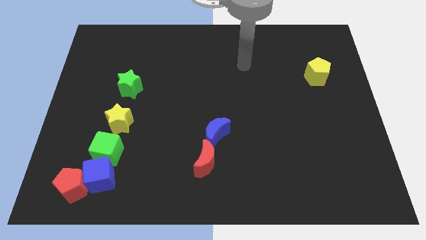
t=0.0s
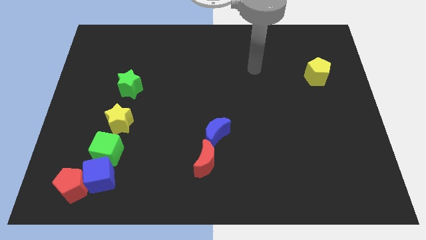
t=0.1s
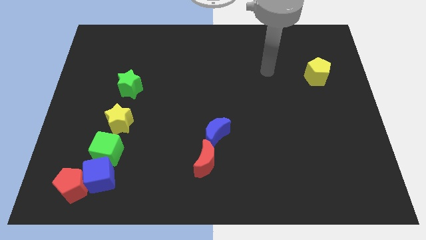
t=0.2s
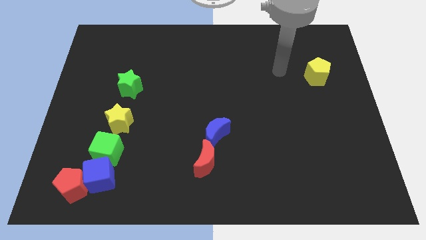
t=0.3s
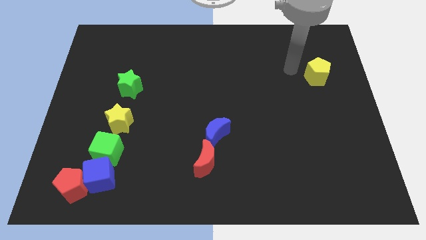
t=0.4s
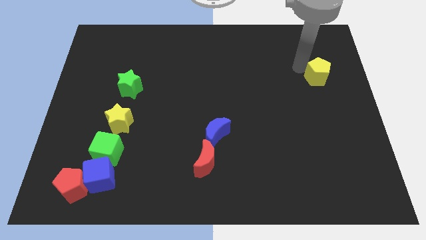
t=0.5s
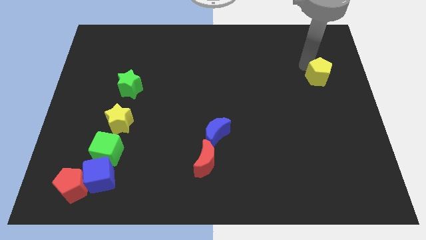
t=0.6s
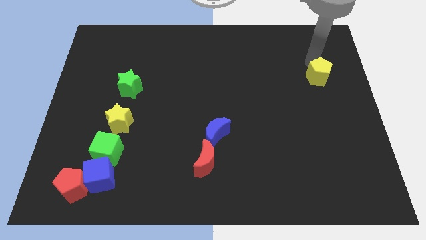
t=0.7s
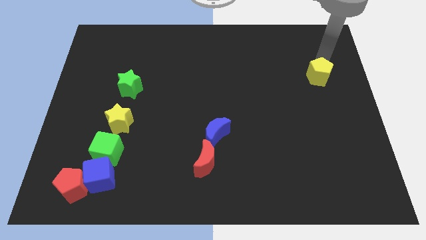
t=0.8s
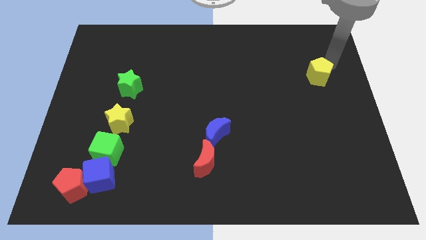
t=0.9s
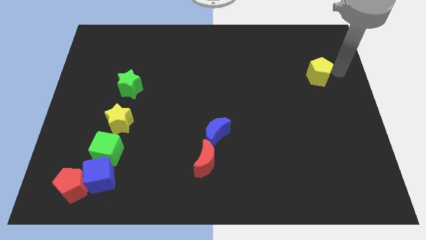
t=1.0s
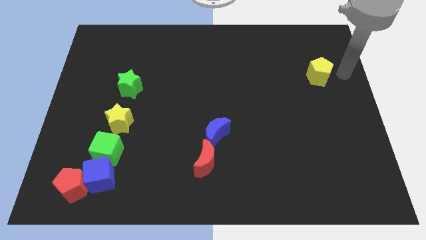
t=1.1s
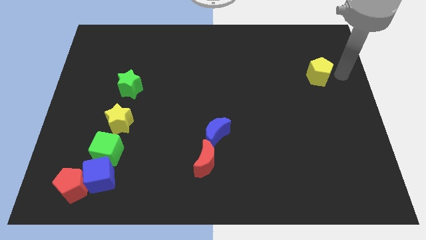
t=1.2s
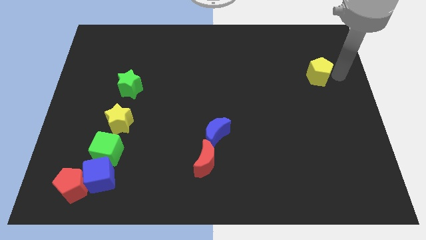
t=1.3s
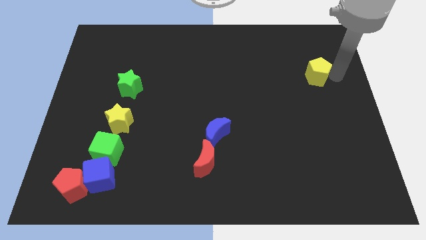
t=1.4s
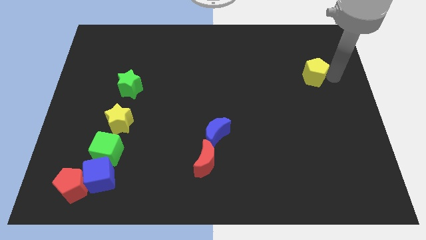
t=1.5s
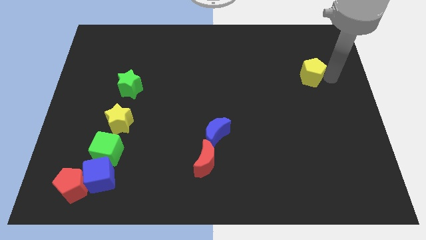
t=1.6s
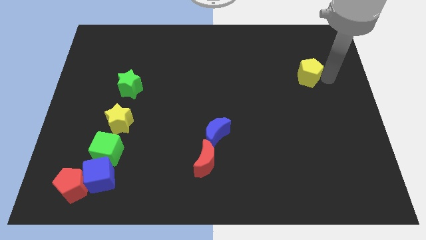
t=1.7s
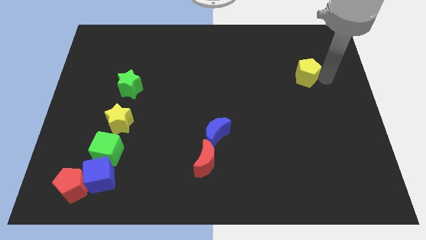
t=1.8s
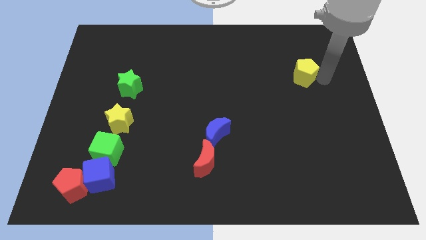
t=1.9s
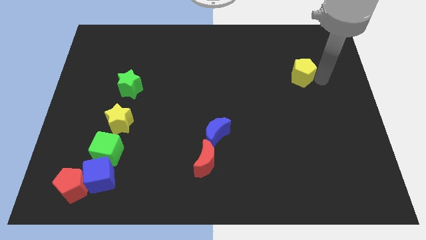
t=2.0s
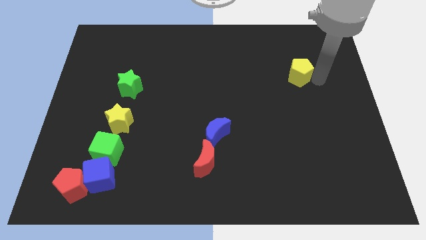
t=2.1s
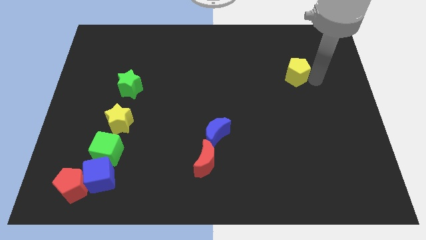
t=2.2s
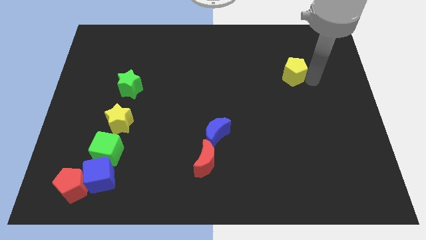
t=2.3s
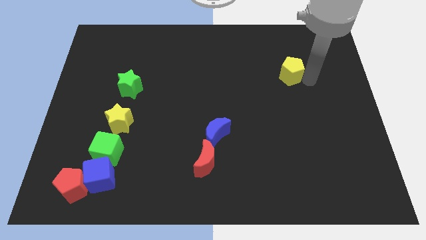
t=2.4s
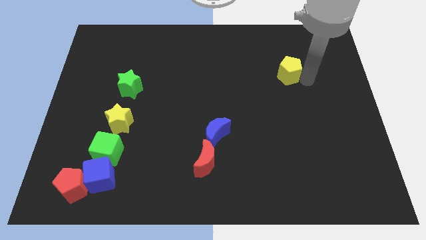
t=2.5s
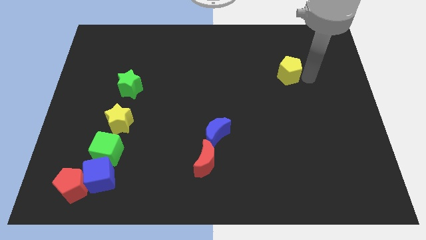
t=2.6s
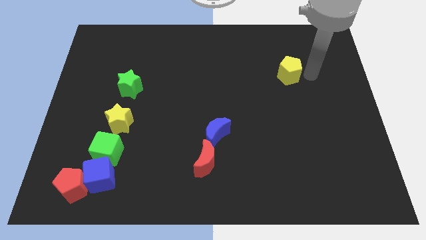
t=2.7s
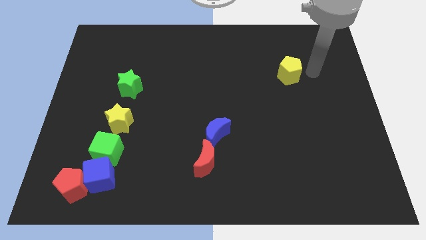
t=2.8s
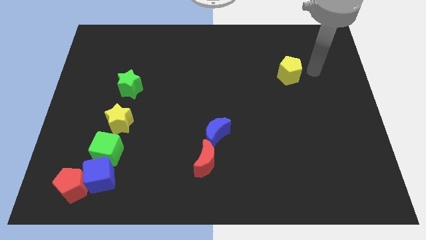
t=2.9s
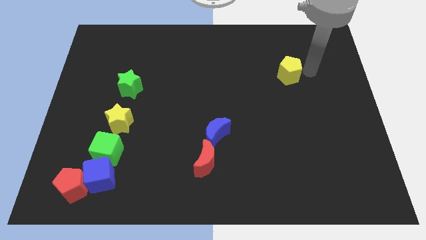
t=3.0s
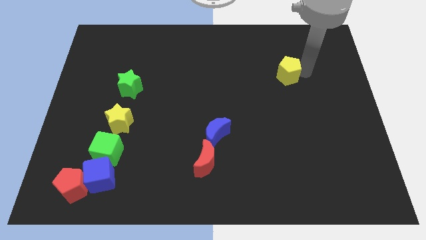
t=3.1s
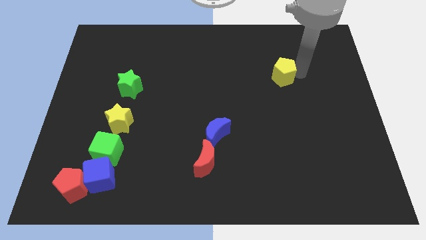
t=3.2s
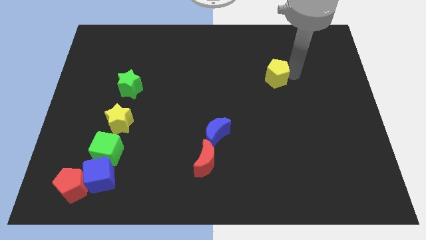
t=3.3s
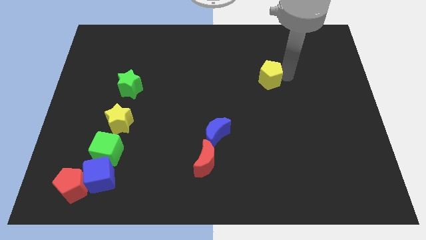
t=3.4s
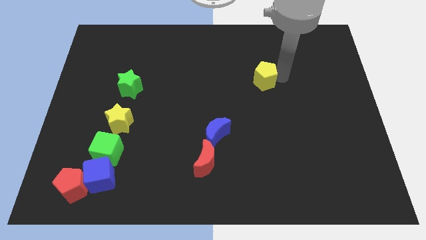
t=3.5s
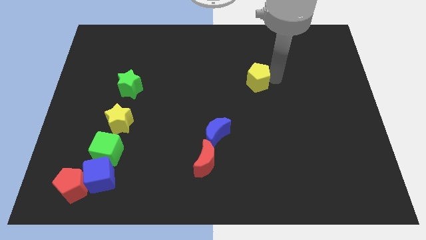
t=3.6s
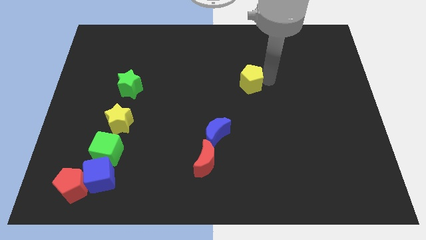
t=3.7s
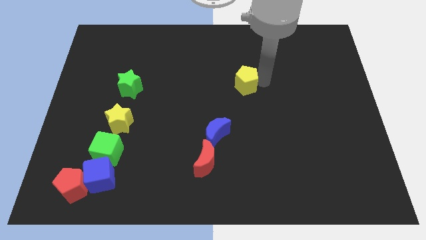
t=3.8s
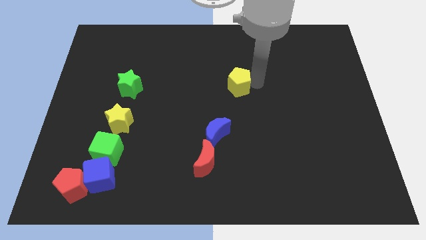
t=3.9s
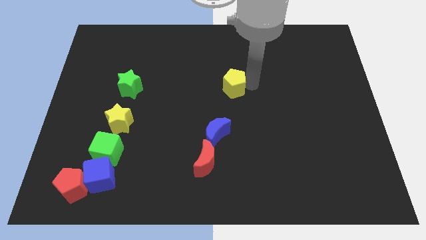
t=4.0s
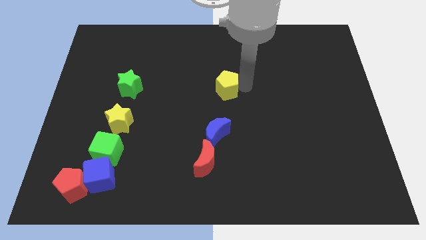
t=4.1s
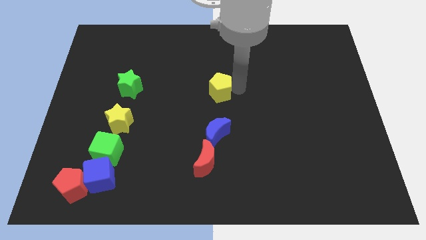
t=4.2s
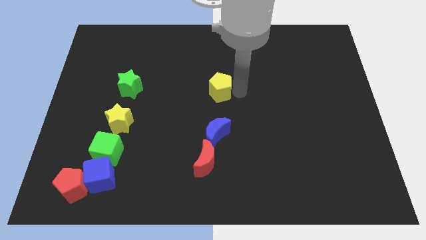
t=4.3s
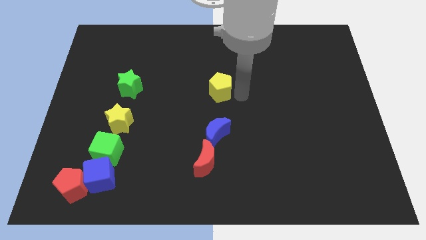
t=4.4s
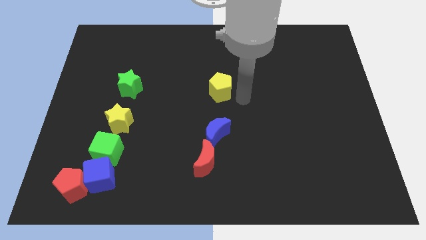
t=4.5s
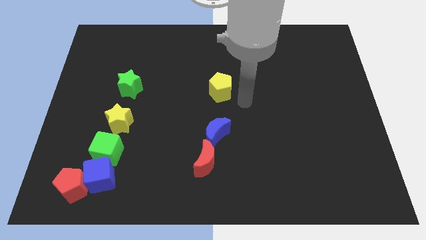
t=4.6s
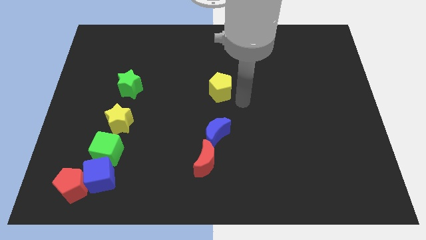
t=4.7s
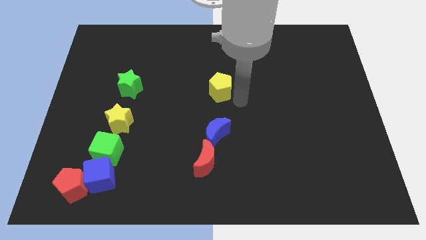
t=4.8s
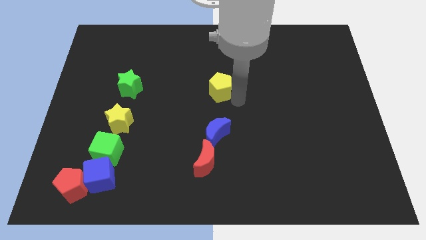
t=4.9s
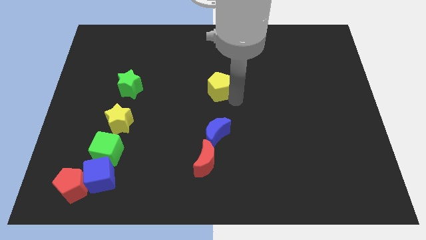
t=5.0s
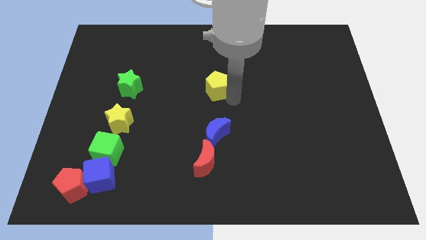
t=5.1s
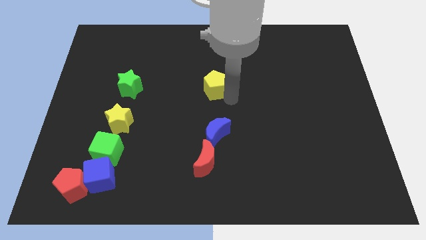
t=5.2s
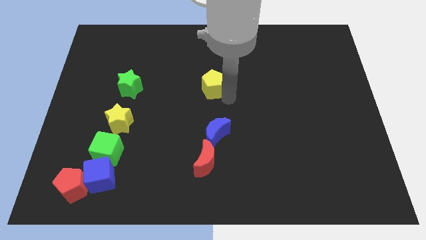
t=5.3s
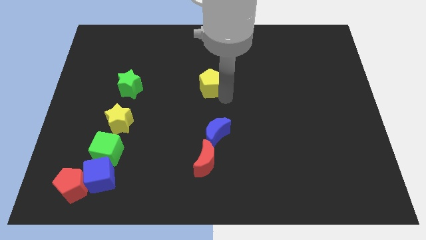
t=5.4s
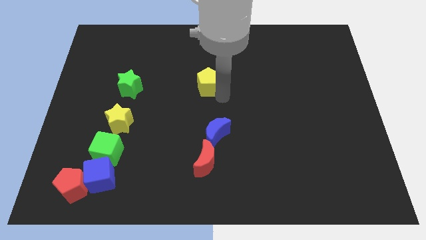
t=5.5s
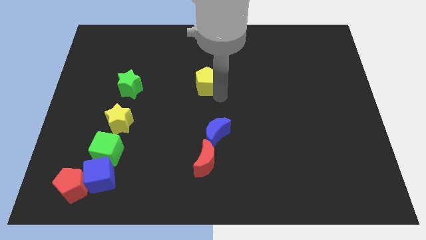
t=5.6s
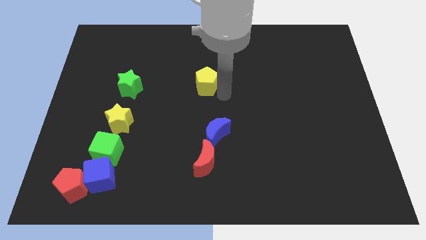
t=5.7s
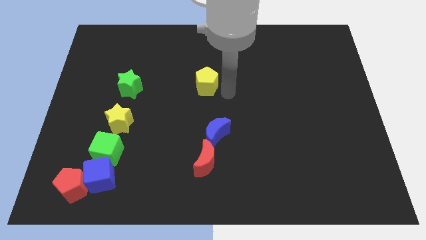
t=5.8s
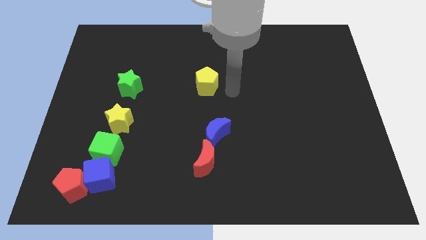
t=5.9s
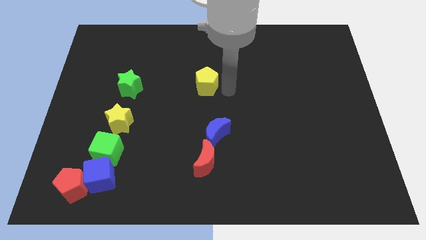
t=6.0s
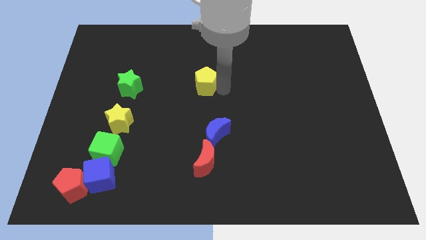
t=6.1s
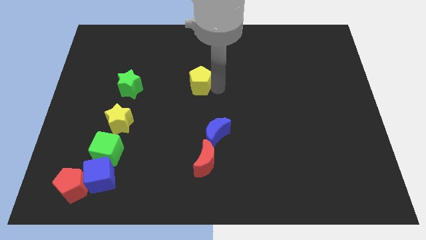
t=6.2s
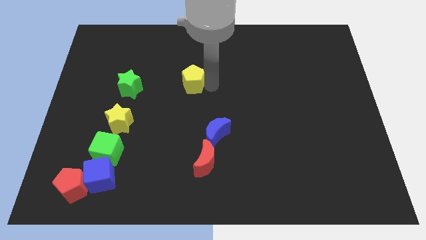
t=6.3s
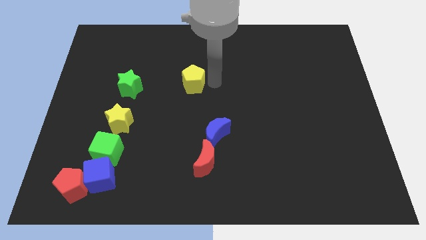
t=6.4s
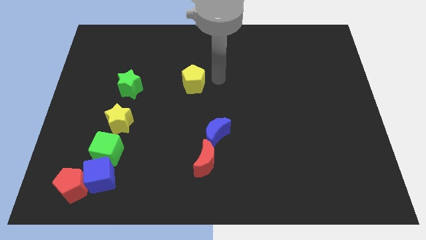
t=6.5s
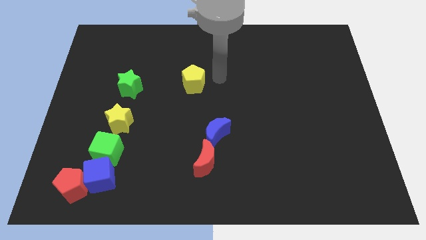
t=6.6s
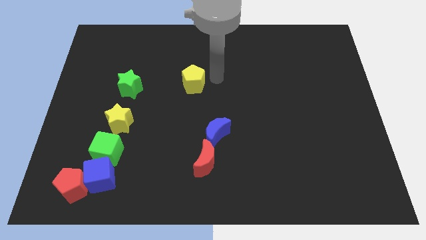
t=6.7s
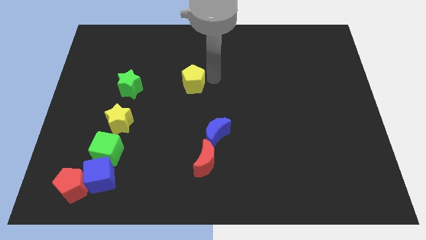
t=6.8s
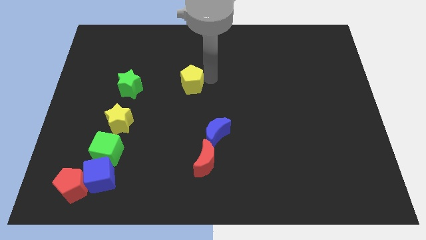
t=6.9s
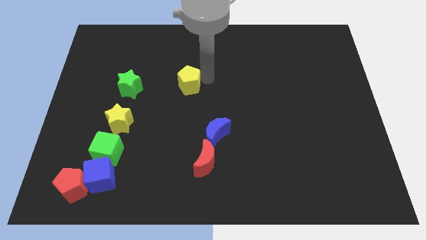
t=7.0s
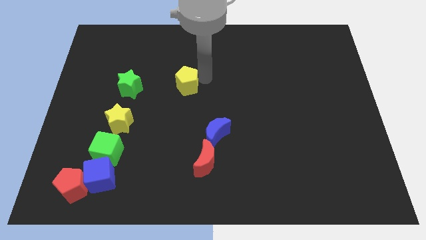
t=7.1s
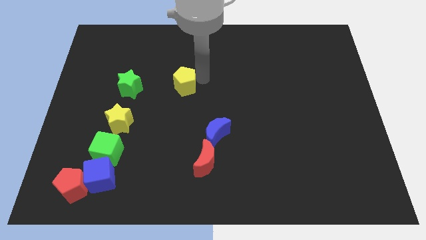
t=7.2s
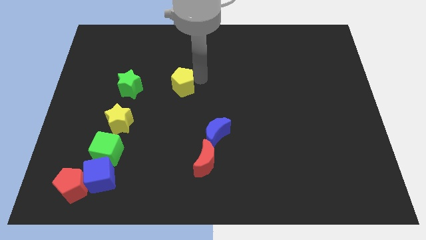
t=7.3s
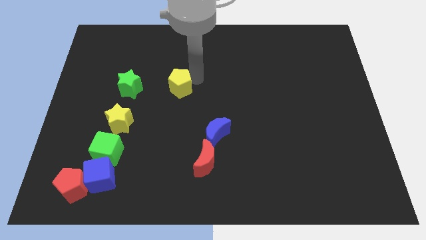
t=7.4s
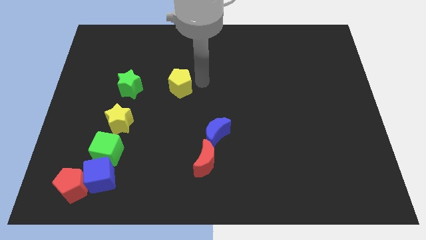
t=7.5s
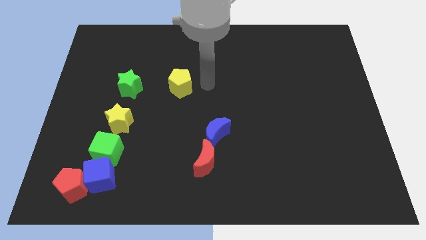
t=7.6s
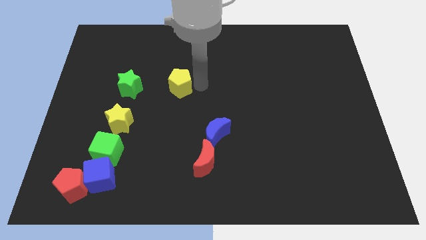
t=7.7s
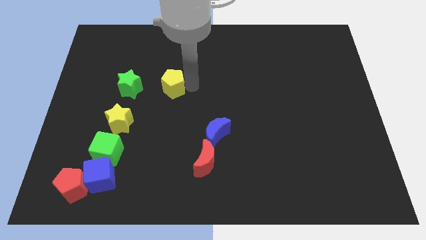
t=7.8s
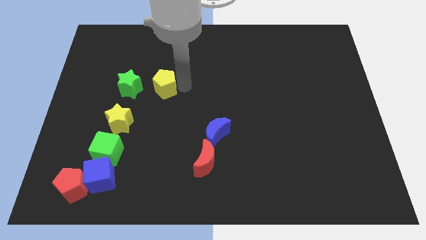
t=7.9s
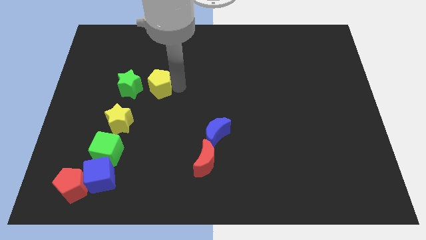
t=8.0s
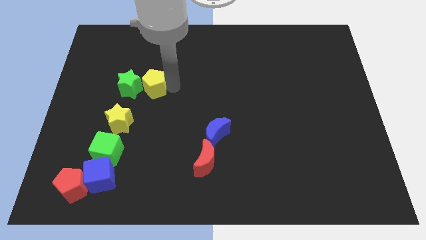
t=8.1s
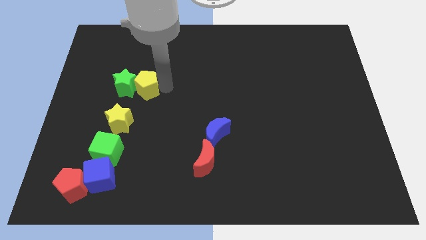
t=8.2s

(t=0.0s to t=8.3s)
push the yellow pentagon close to the green star
